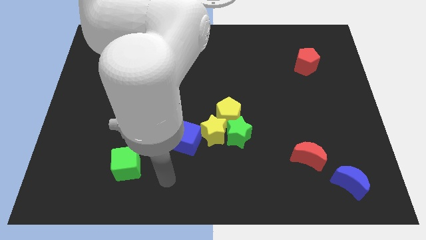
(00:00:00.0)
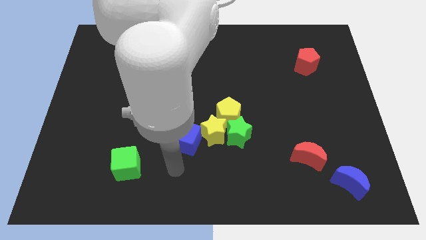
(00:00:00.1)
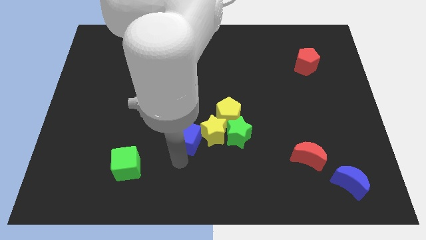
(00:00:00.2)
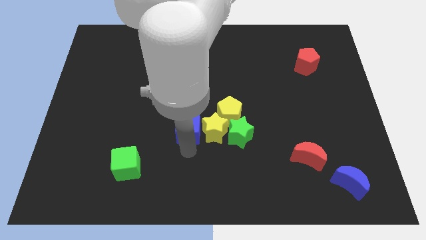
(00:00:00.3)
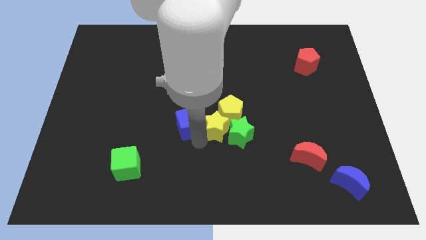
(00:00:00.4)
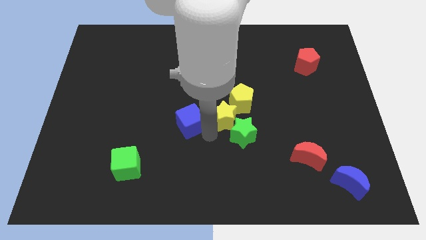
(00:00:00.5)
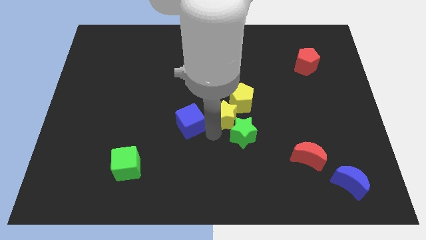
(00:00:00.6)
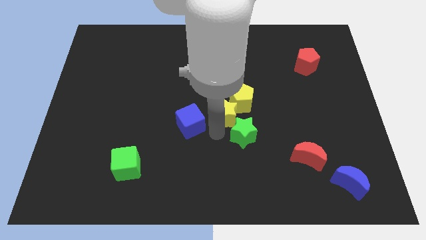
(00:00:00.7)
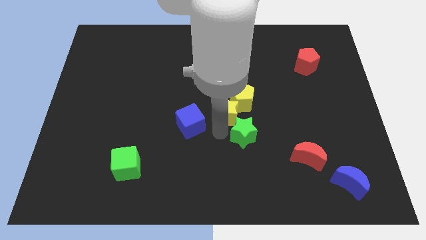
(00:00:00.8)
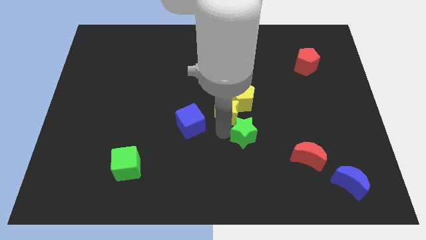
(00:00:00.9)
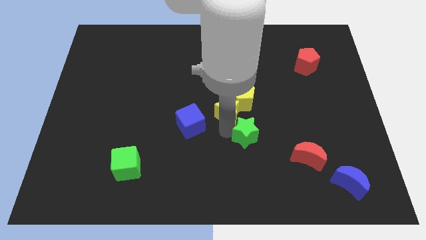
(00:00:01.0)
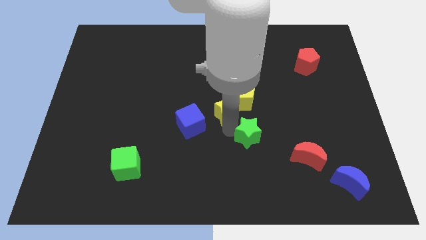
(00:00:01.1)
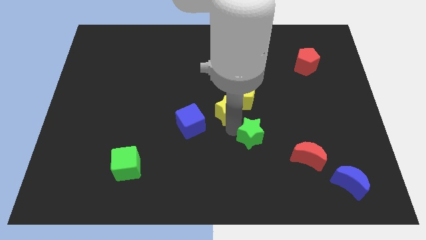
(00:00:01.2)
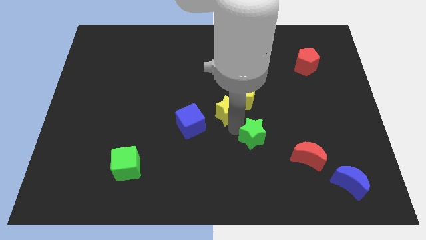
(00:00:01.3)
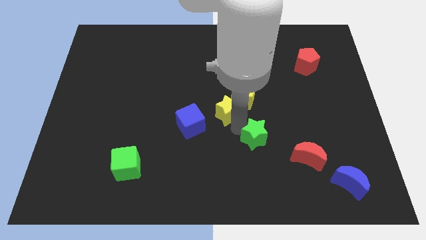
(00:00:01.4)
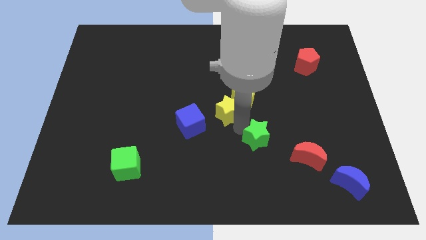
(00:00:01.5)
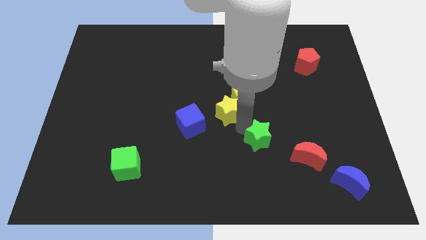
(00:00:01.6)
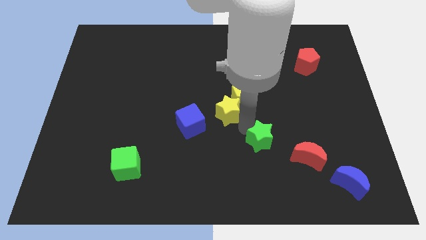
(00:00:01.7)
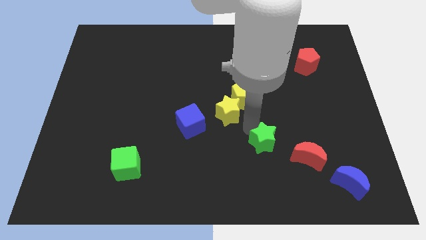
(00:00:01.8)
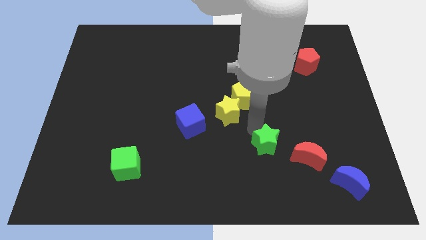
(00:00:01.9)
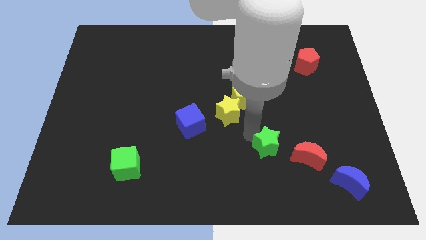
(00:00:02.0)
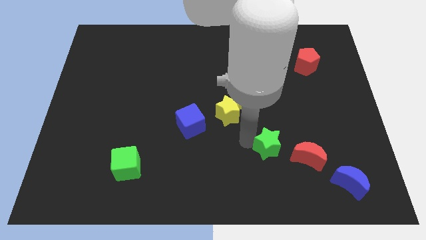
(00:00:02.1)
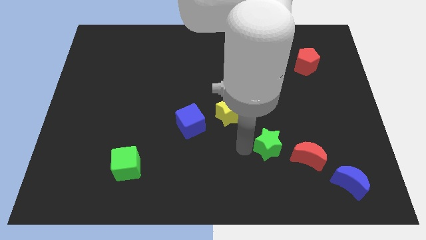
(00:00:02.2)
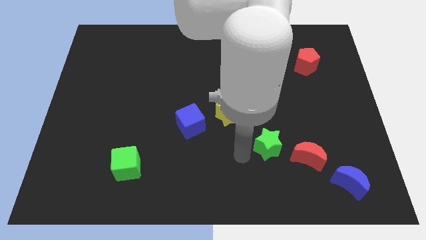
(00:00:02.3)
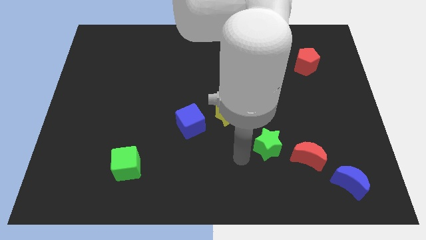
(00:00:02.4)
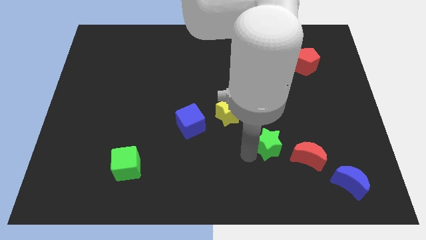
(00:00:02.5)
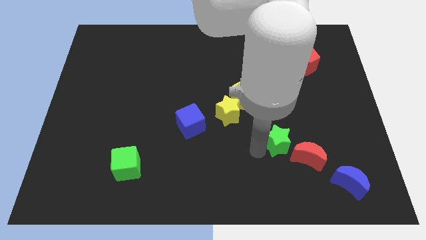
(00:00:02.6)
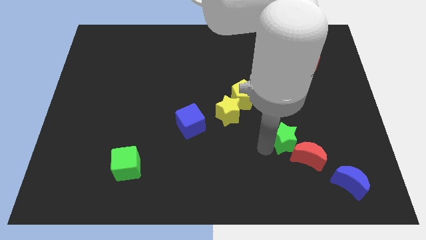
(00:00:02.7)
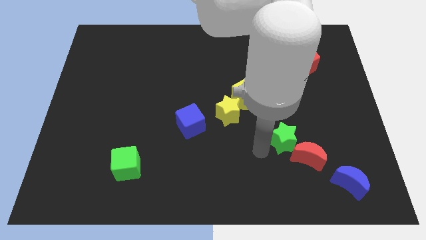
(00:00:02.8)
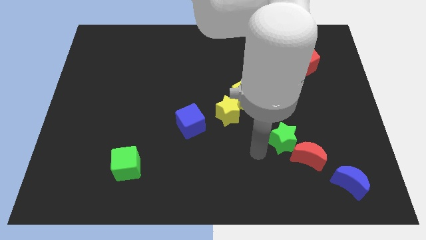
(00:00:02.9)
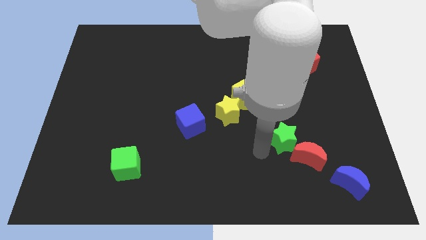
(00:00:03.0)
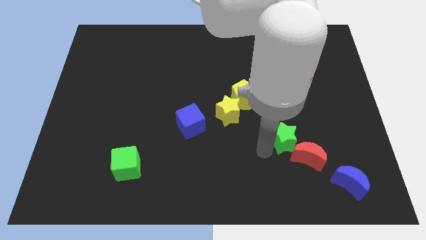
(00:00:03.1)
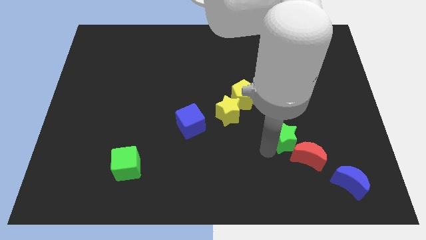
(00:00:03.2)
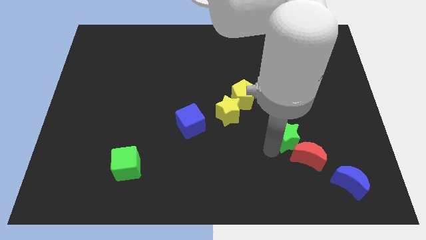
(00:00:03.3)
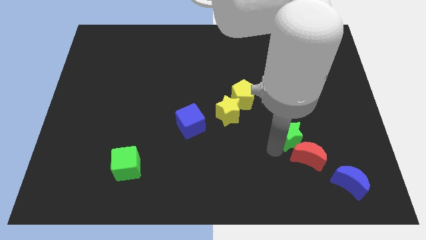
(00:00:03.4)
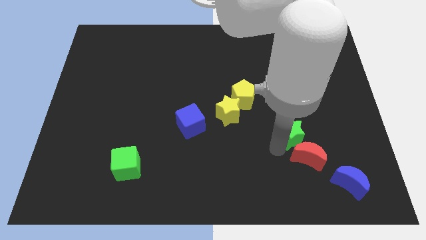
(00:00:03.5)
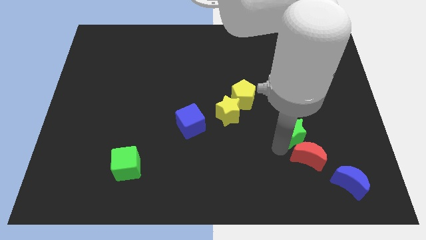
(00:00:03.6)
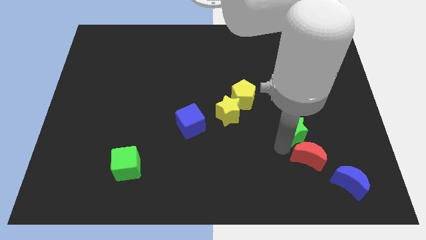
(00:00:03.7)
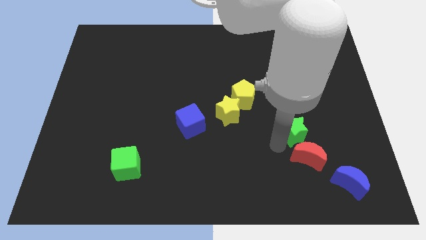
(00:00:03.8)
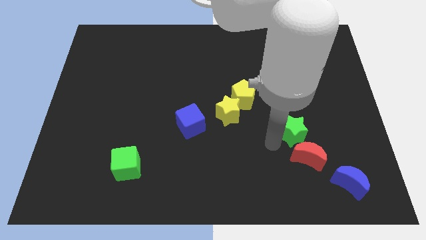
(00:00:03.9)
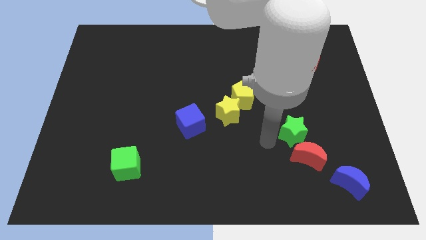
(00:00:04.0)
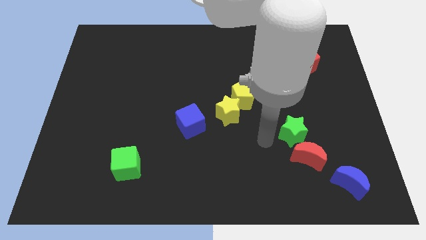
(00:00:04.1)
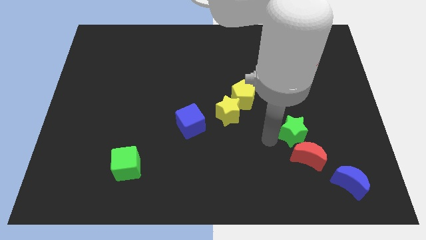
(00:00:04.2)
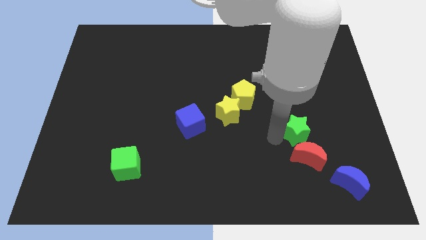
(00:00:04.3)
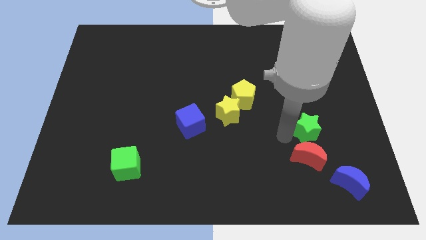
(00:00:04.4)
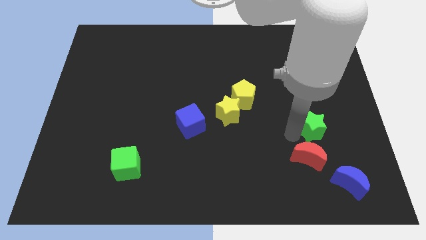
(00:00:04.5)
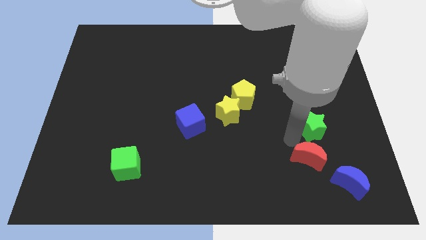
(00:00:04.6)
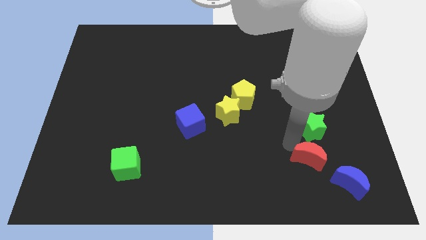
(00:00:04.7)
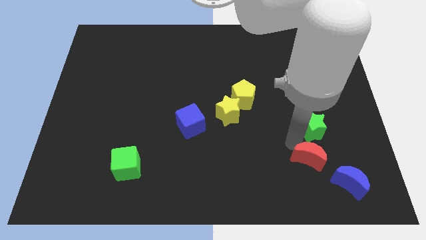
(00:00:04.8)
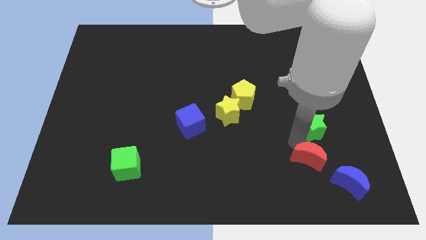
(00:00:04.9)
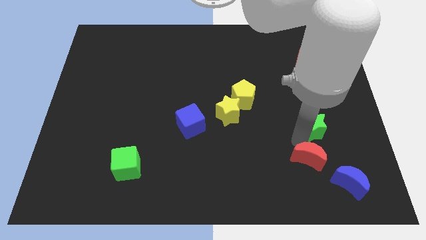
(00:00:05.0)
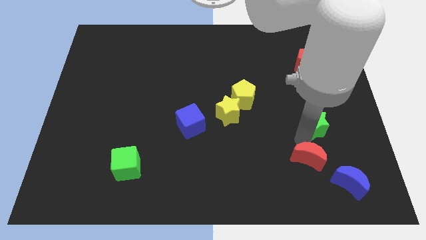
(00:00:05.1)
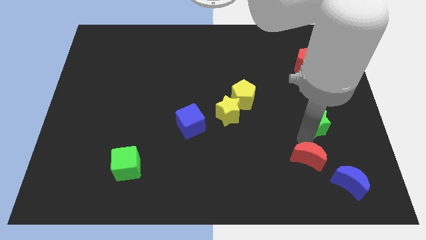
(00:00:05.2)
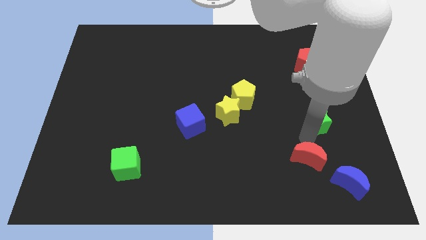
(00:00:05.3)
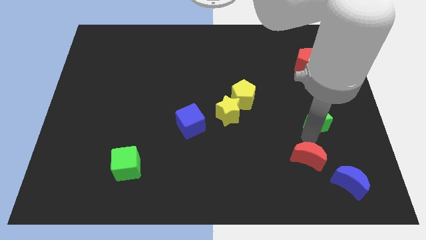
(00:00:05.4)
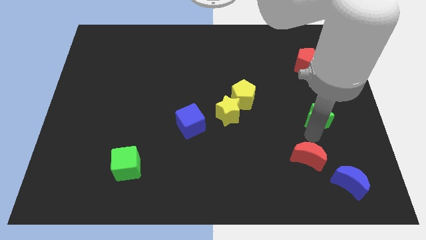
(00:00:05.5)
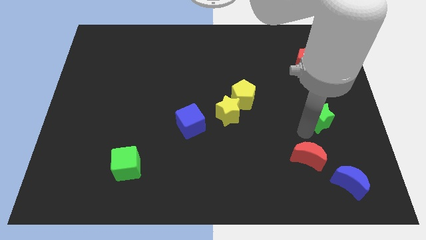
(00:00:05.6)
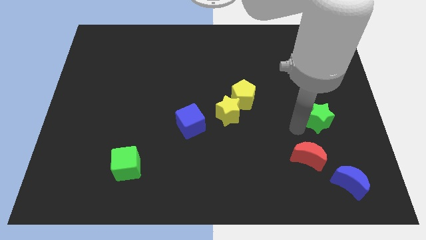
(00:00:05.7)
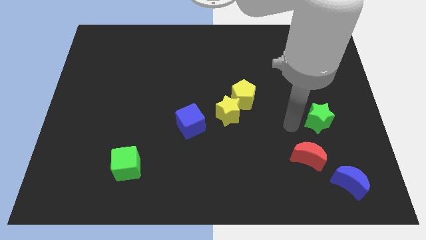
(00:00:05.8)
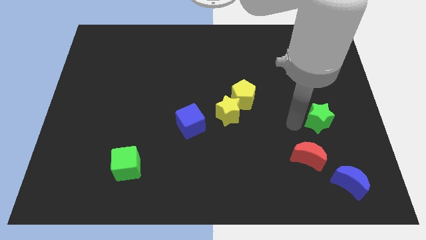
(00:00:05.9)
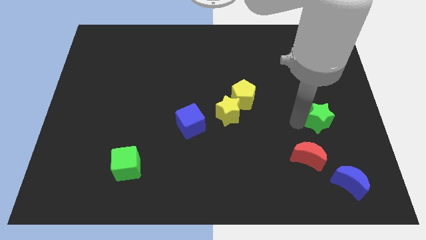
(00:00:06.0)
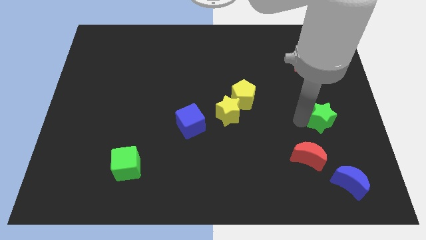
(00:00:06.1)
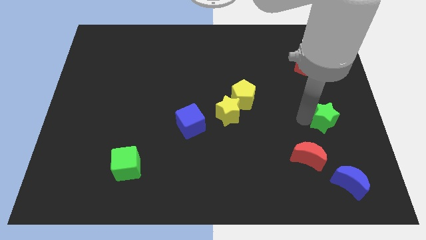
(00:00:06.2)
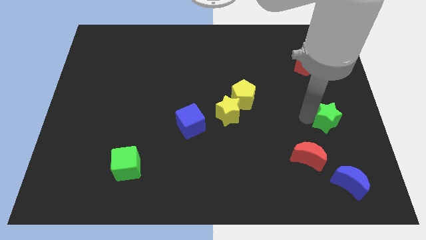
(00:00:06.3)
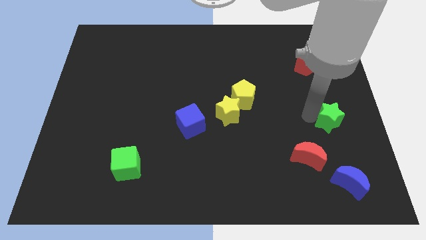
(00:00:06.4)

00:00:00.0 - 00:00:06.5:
move the green star to the center right

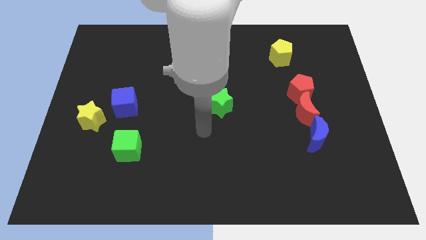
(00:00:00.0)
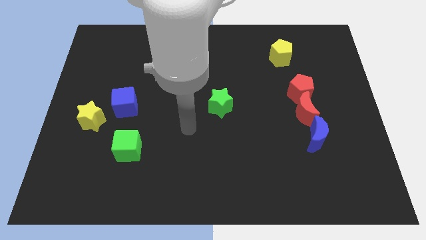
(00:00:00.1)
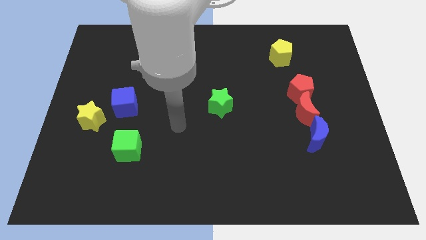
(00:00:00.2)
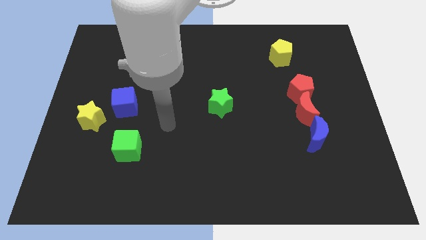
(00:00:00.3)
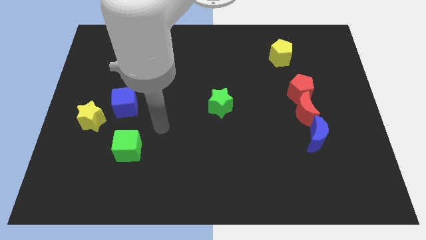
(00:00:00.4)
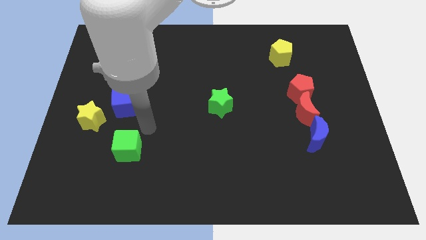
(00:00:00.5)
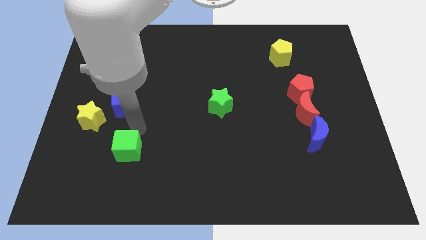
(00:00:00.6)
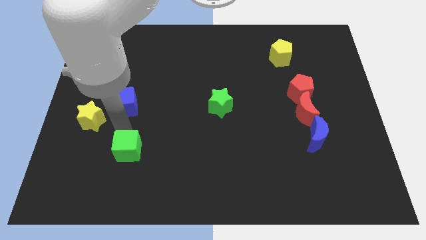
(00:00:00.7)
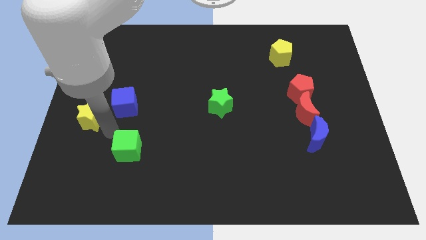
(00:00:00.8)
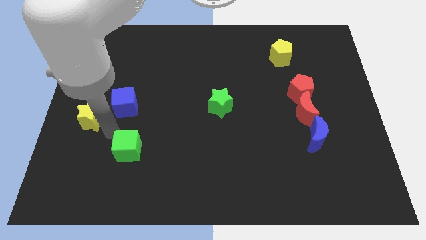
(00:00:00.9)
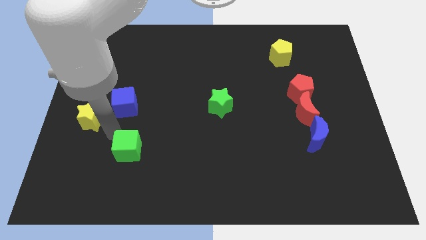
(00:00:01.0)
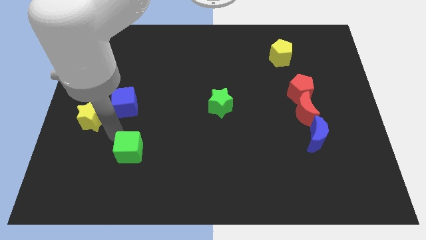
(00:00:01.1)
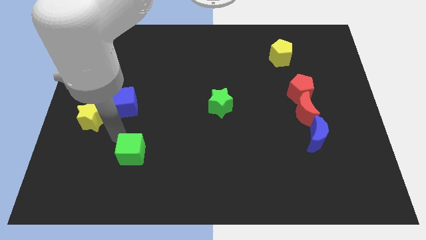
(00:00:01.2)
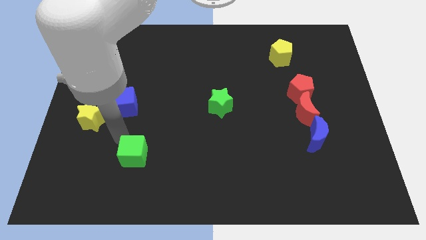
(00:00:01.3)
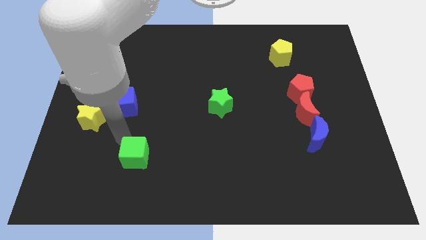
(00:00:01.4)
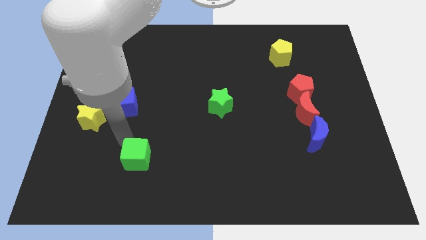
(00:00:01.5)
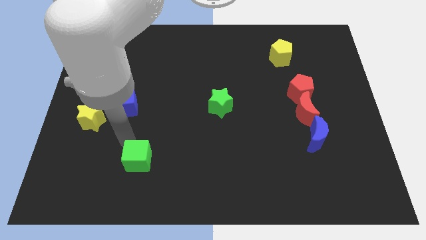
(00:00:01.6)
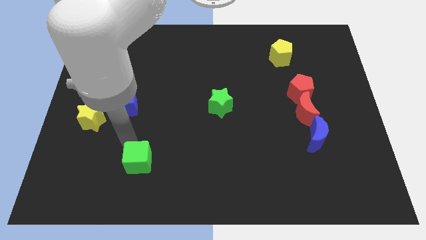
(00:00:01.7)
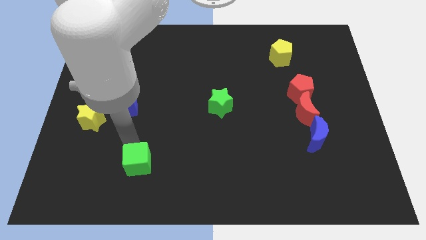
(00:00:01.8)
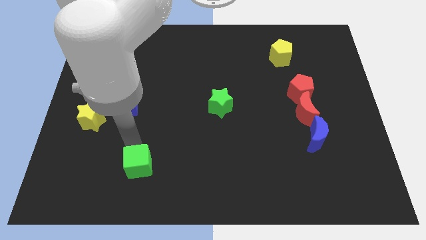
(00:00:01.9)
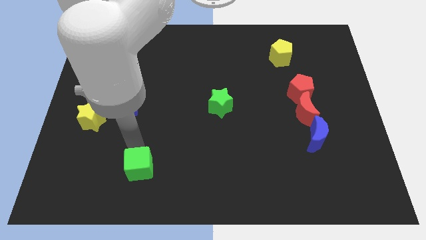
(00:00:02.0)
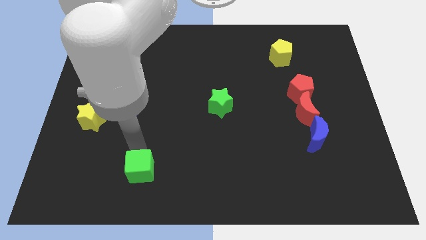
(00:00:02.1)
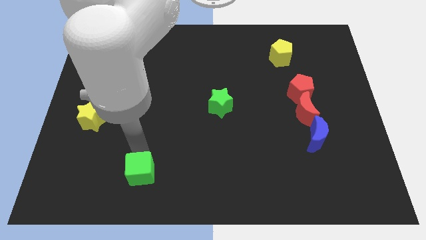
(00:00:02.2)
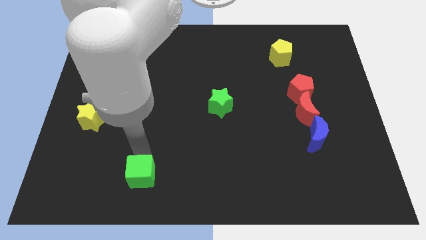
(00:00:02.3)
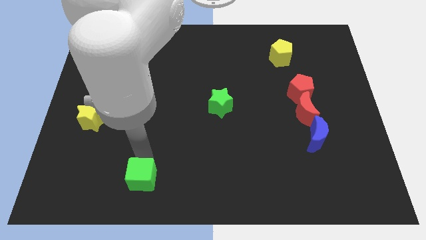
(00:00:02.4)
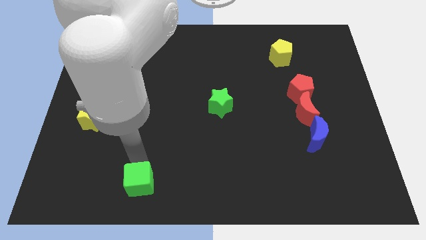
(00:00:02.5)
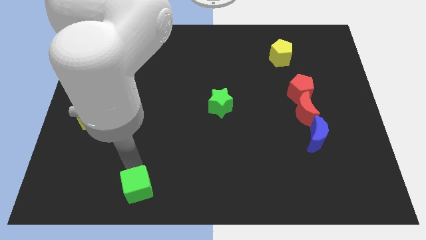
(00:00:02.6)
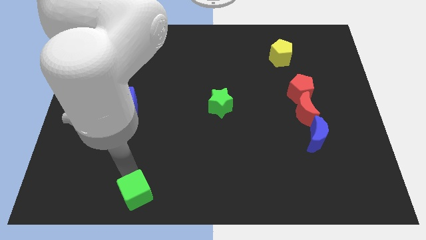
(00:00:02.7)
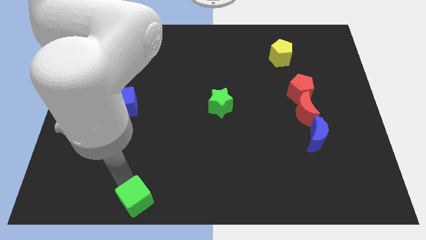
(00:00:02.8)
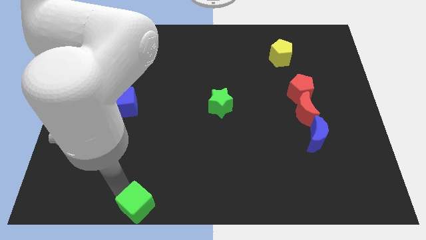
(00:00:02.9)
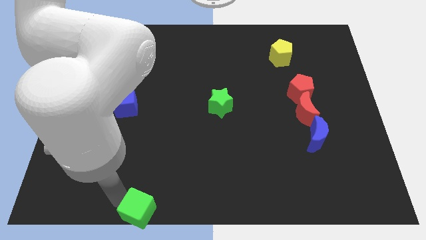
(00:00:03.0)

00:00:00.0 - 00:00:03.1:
push the green cube to the bottom
